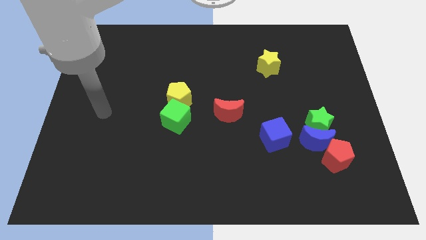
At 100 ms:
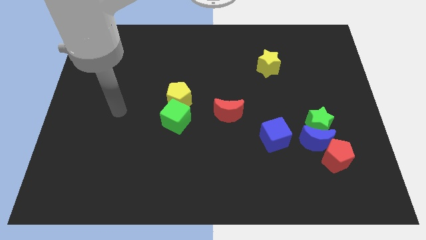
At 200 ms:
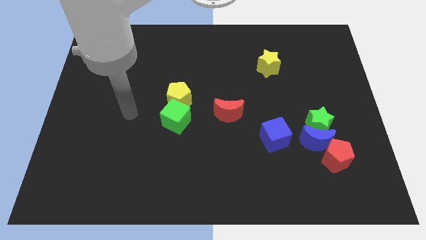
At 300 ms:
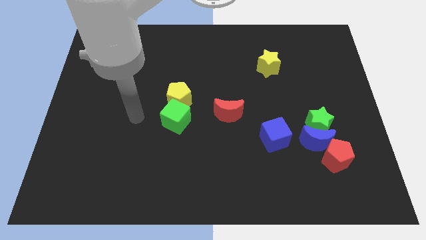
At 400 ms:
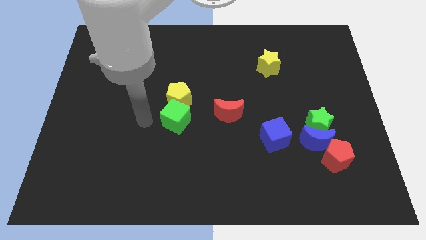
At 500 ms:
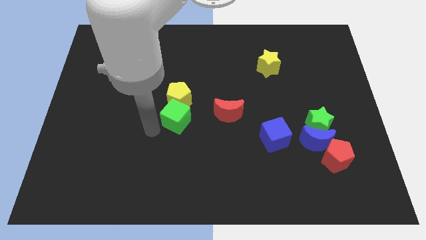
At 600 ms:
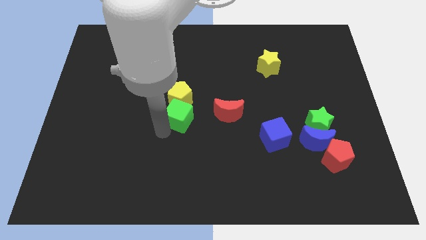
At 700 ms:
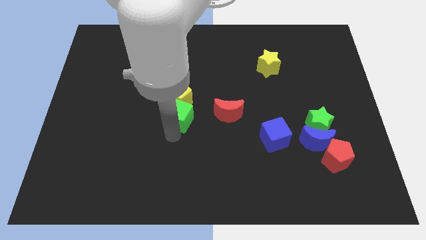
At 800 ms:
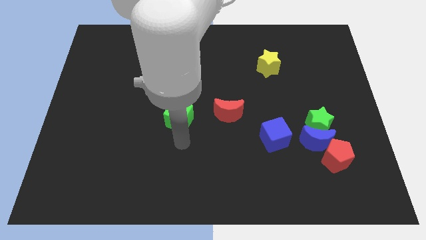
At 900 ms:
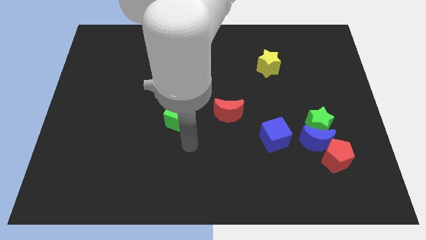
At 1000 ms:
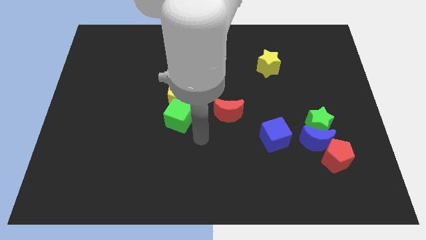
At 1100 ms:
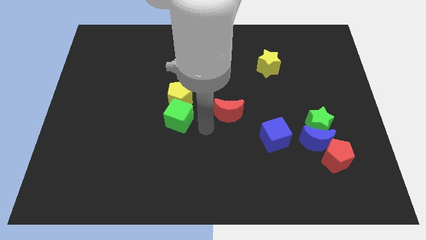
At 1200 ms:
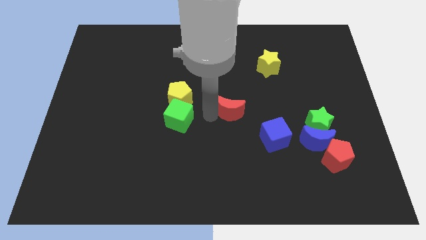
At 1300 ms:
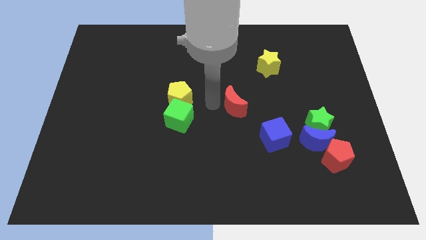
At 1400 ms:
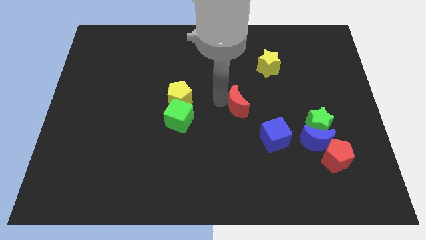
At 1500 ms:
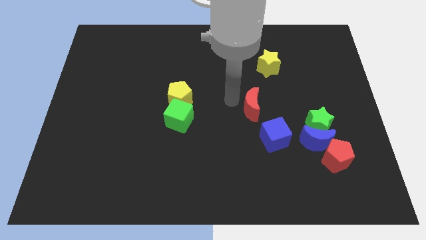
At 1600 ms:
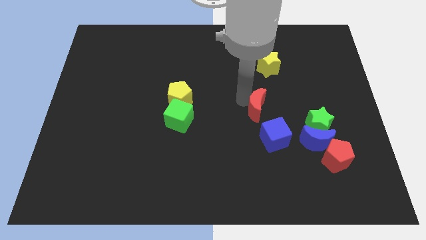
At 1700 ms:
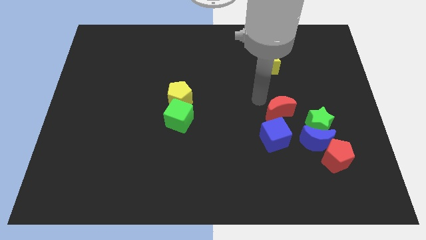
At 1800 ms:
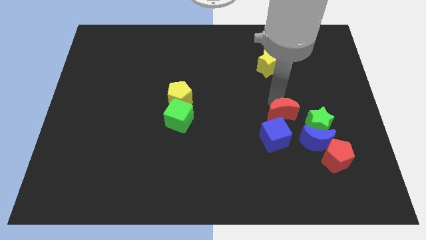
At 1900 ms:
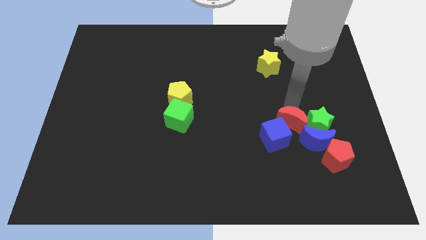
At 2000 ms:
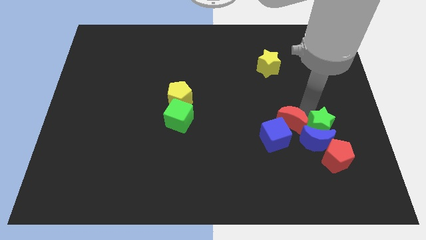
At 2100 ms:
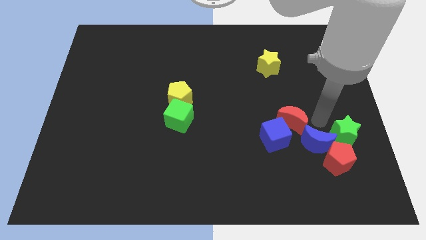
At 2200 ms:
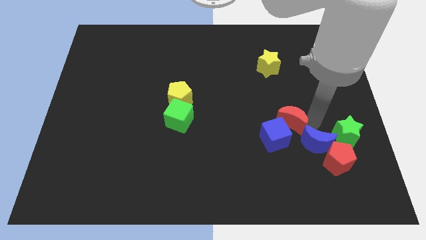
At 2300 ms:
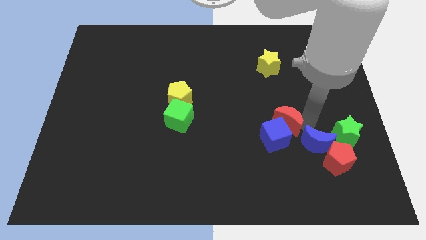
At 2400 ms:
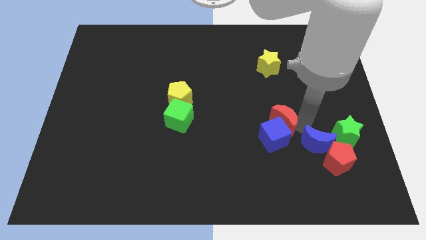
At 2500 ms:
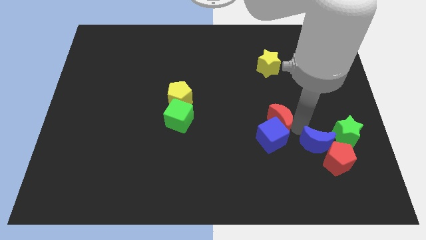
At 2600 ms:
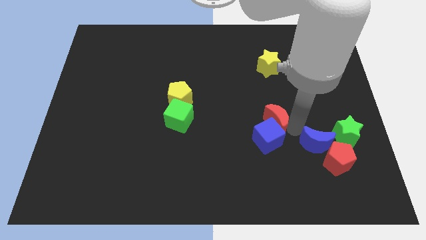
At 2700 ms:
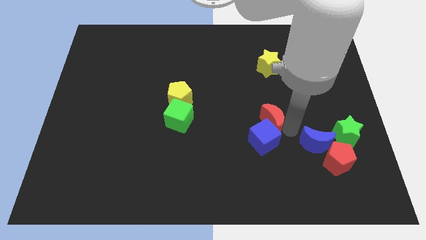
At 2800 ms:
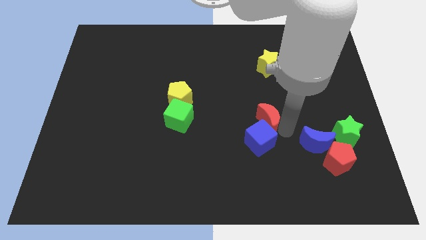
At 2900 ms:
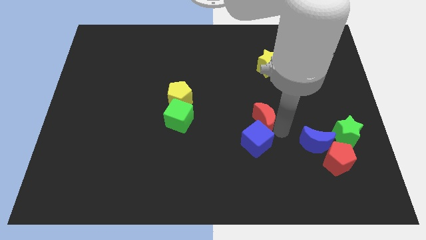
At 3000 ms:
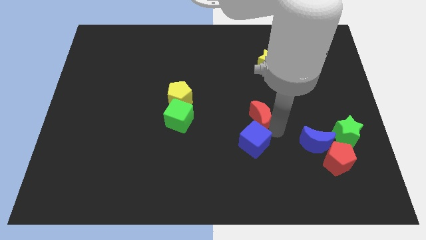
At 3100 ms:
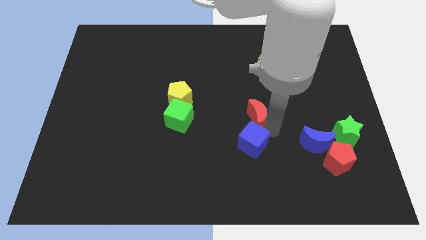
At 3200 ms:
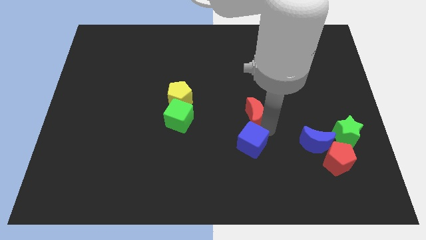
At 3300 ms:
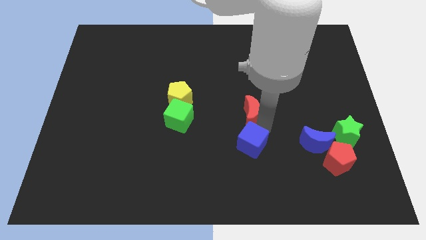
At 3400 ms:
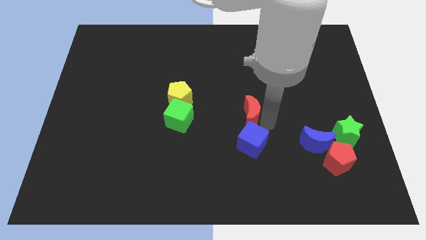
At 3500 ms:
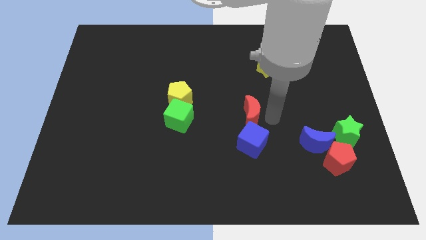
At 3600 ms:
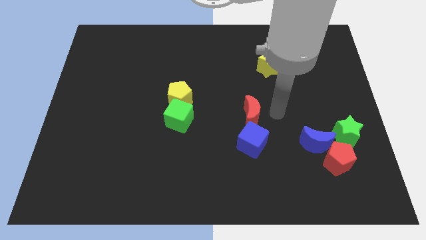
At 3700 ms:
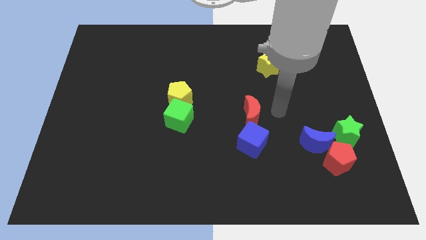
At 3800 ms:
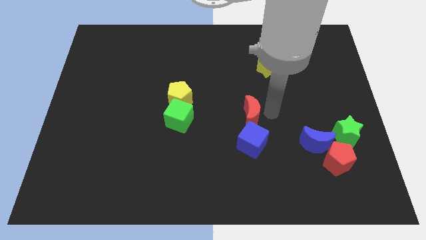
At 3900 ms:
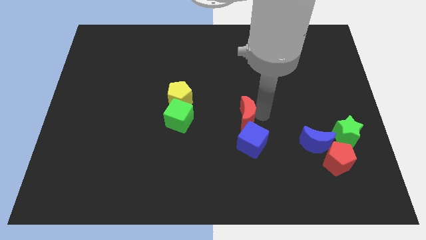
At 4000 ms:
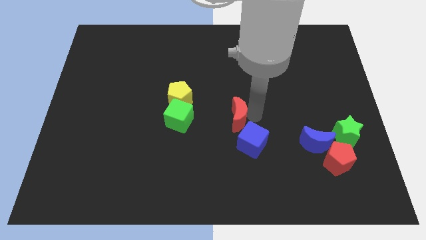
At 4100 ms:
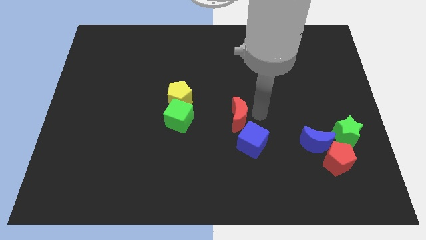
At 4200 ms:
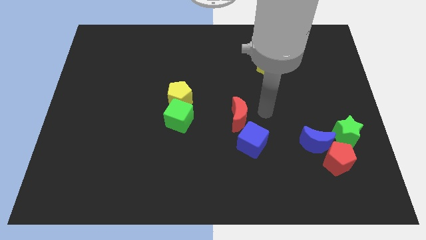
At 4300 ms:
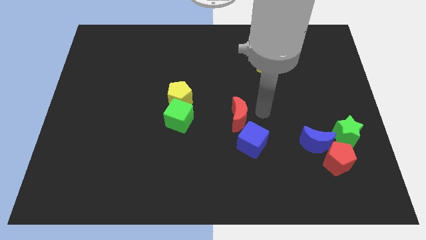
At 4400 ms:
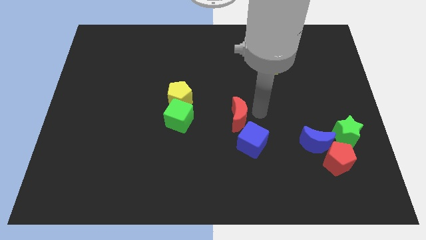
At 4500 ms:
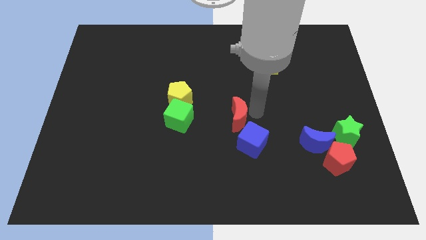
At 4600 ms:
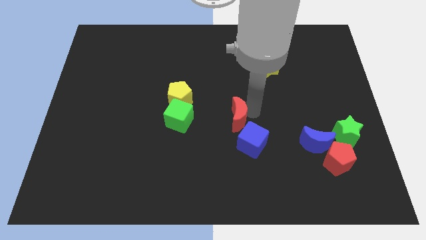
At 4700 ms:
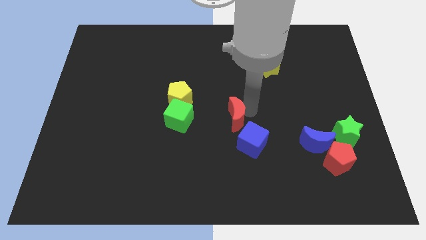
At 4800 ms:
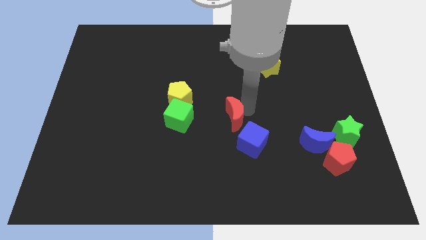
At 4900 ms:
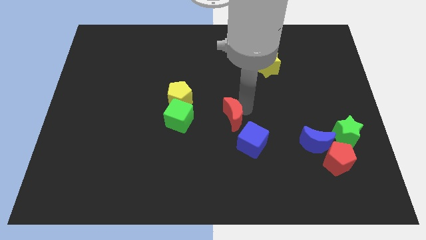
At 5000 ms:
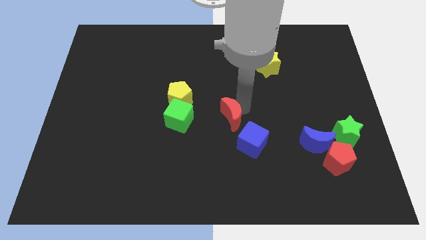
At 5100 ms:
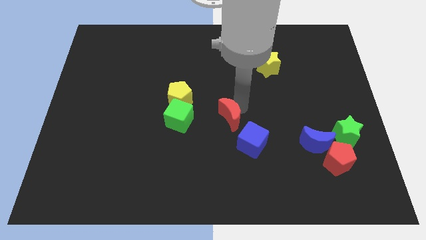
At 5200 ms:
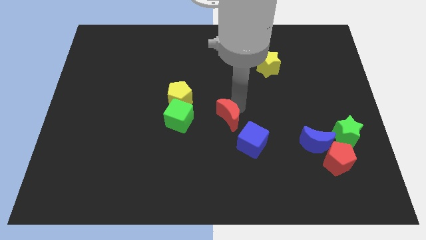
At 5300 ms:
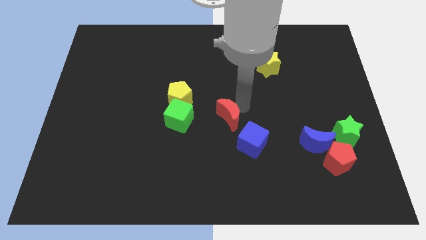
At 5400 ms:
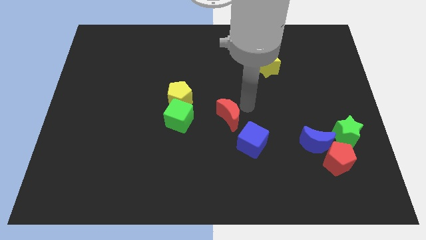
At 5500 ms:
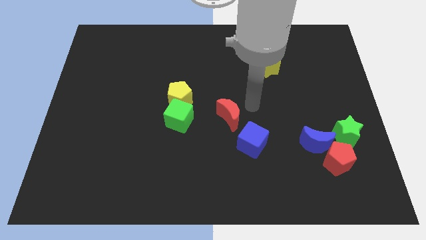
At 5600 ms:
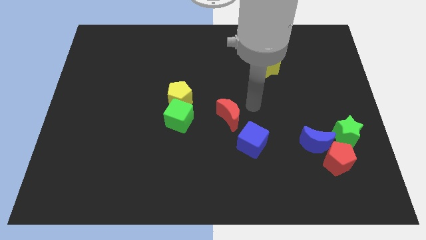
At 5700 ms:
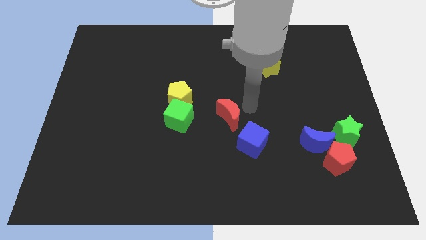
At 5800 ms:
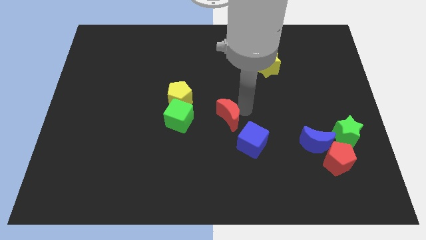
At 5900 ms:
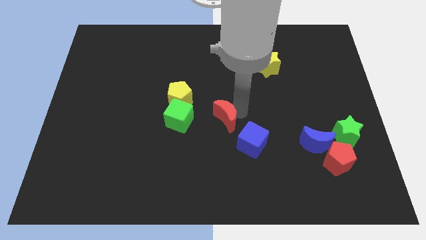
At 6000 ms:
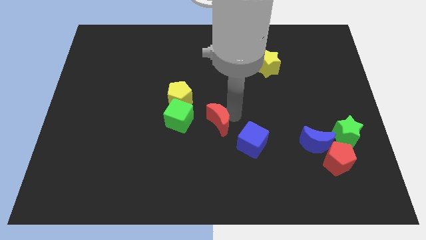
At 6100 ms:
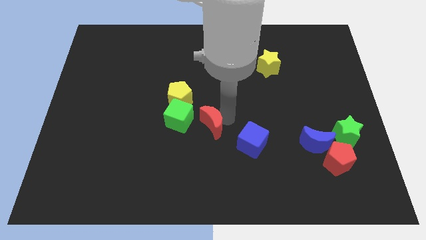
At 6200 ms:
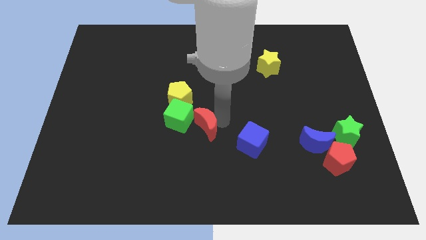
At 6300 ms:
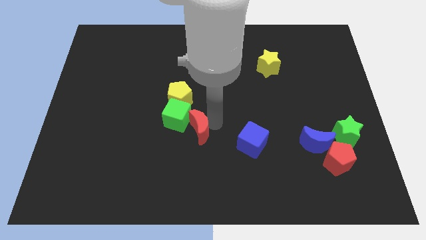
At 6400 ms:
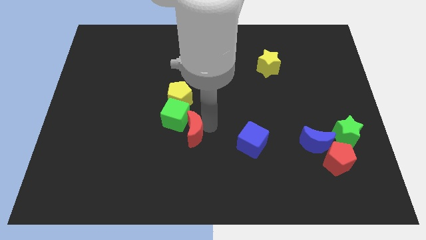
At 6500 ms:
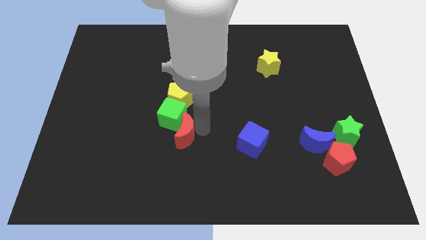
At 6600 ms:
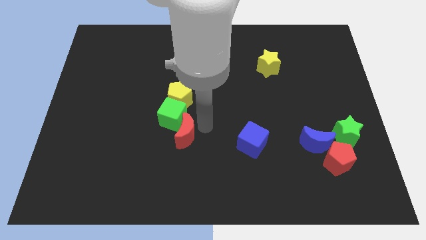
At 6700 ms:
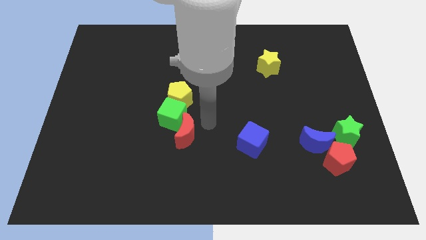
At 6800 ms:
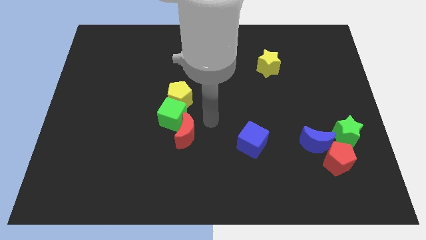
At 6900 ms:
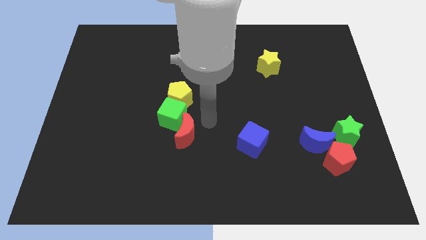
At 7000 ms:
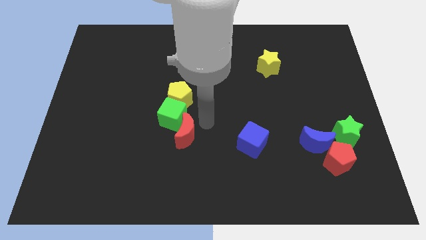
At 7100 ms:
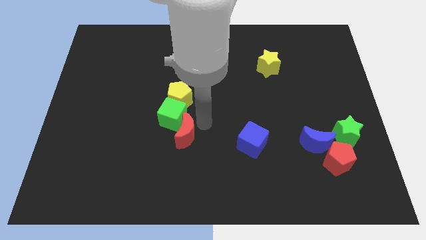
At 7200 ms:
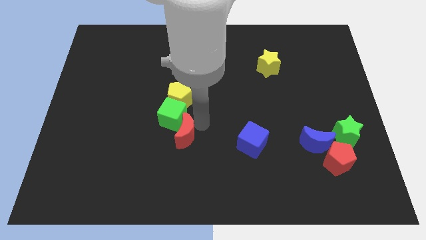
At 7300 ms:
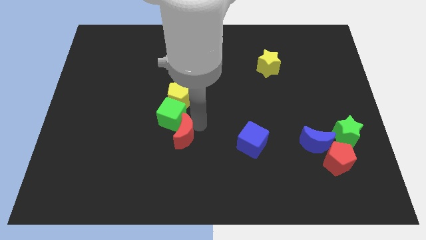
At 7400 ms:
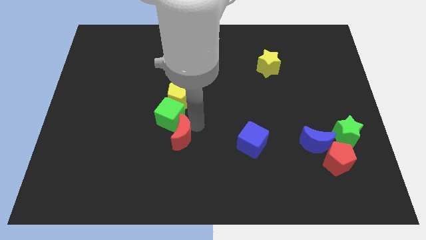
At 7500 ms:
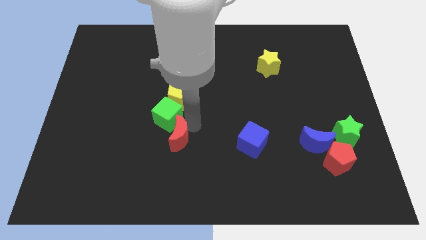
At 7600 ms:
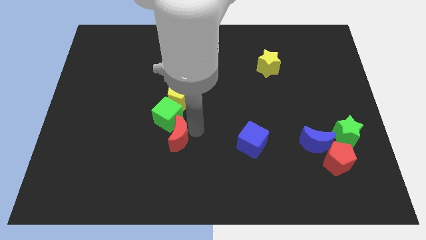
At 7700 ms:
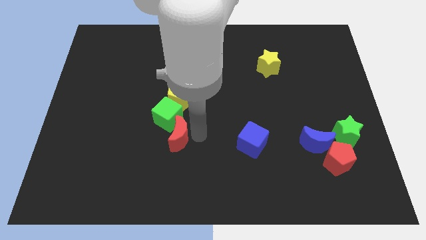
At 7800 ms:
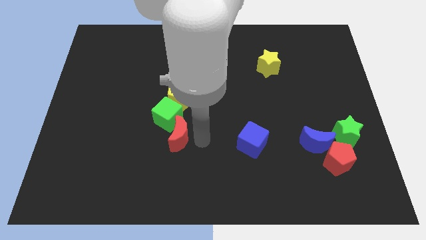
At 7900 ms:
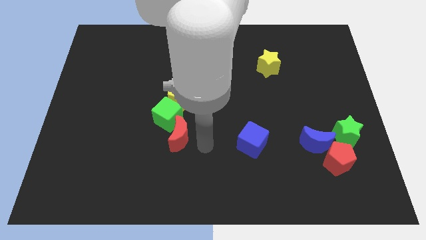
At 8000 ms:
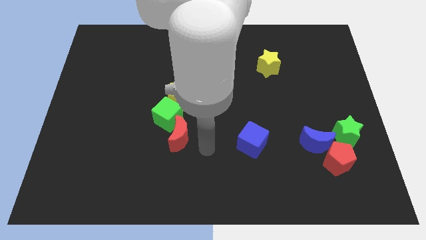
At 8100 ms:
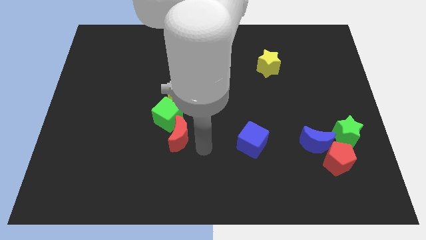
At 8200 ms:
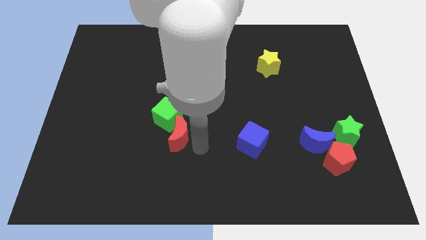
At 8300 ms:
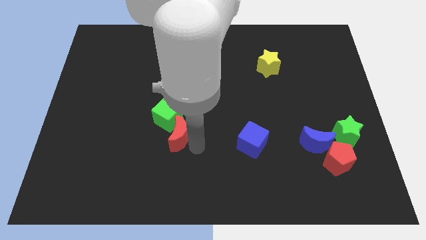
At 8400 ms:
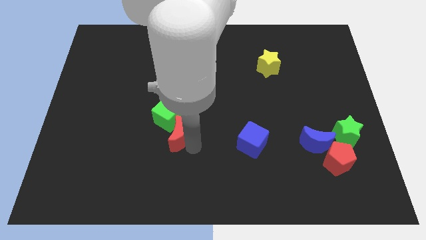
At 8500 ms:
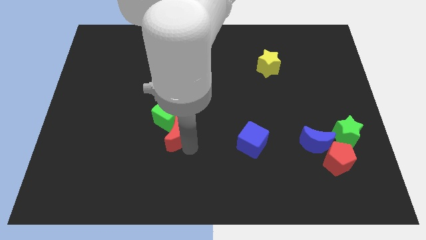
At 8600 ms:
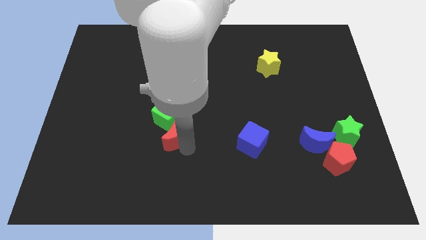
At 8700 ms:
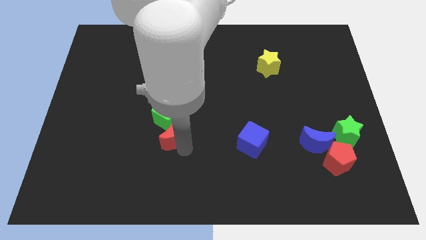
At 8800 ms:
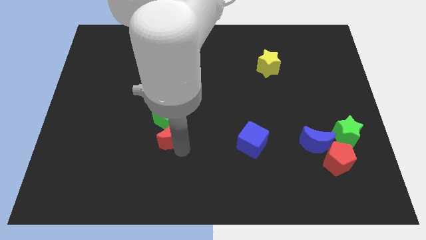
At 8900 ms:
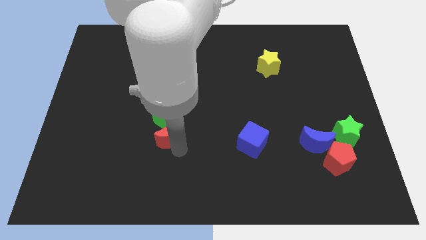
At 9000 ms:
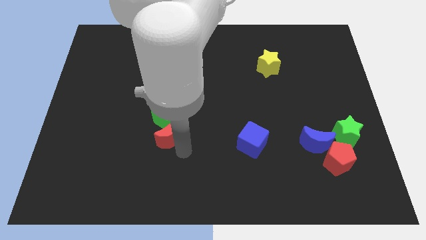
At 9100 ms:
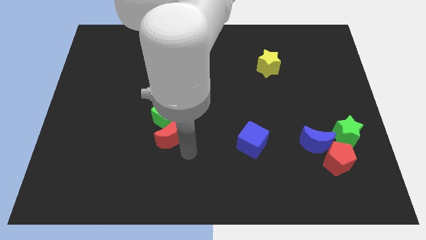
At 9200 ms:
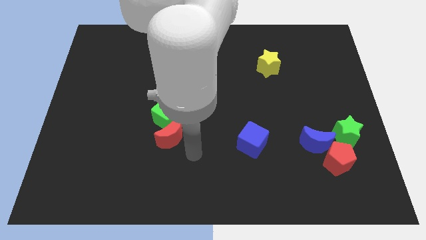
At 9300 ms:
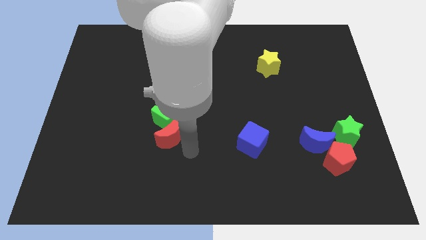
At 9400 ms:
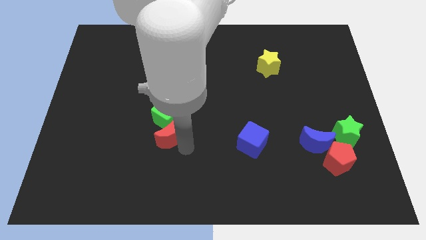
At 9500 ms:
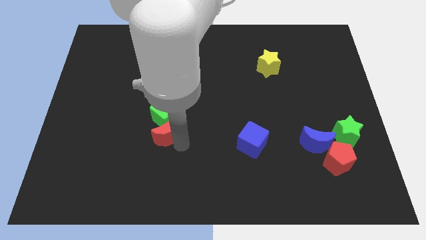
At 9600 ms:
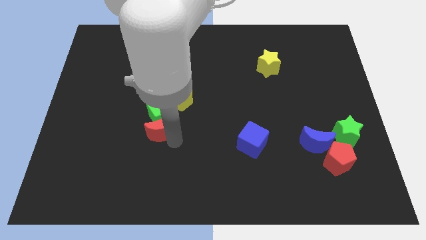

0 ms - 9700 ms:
push the red moon diagonally down and to the left of the yellow pentagon
